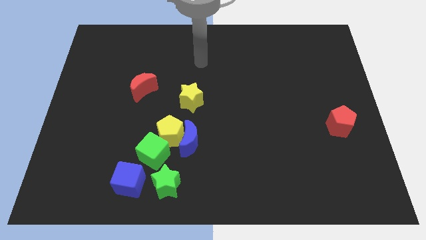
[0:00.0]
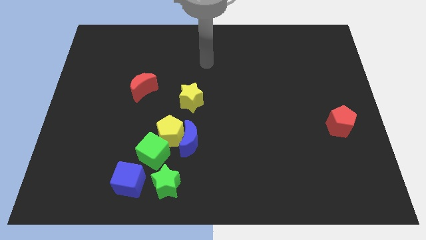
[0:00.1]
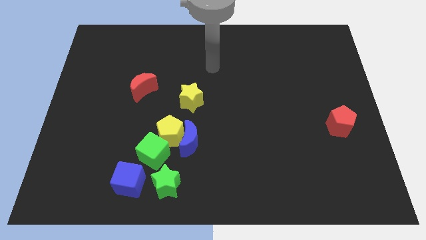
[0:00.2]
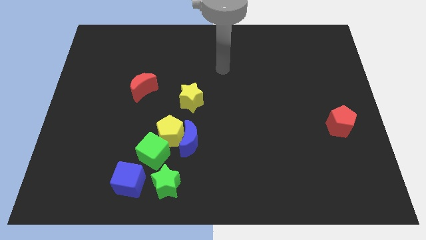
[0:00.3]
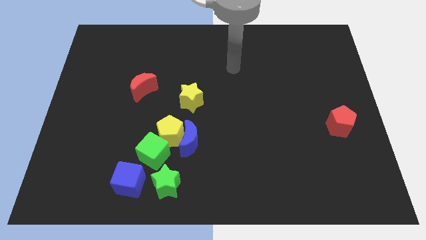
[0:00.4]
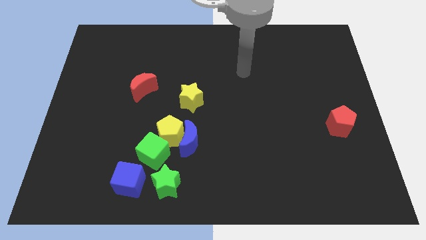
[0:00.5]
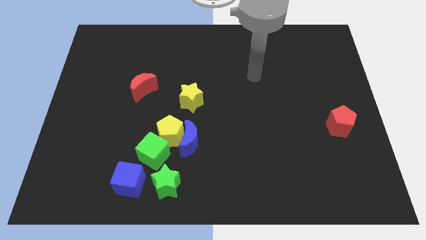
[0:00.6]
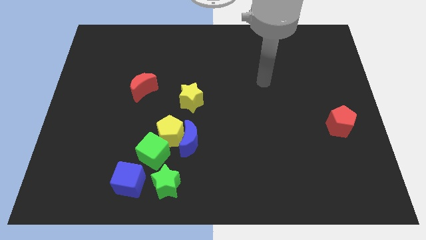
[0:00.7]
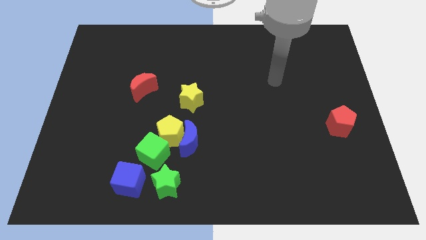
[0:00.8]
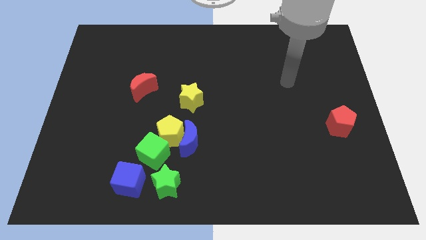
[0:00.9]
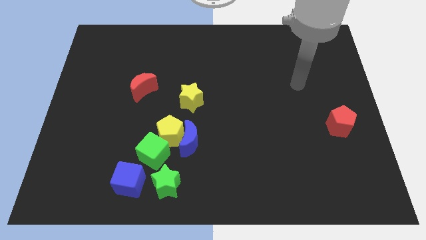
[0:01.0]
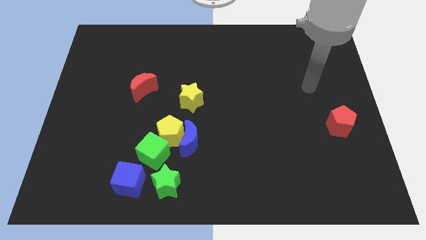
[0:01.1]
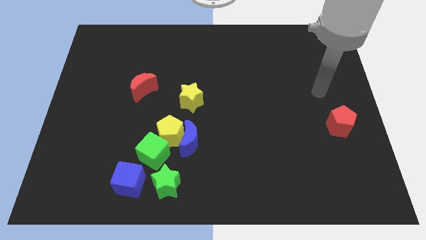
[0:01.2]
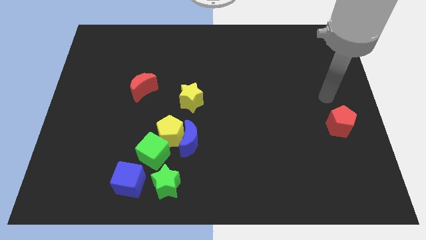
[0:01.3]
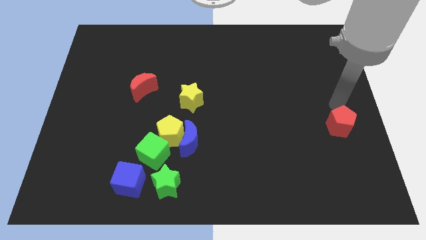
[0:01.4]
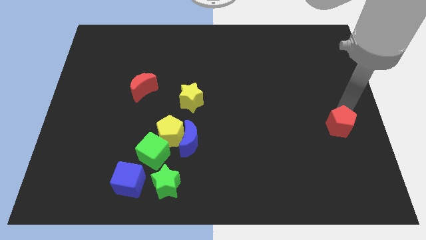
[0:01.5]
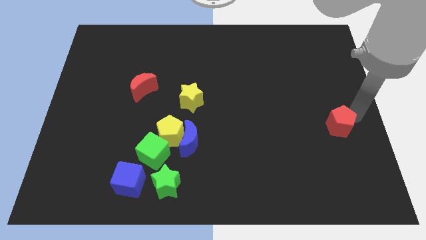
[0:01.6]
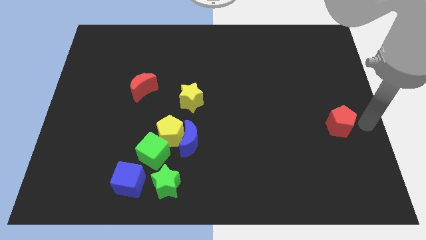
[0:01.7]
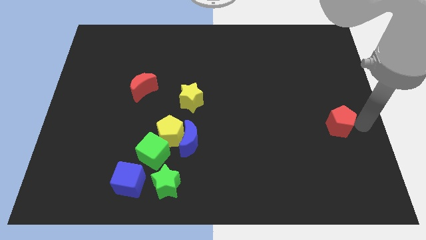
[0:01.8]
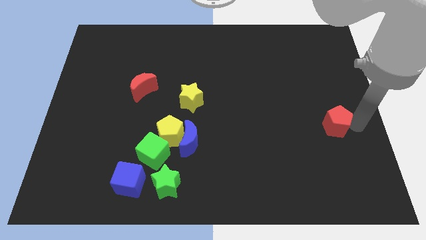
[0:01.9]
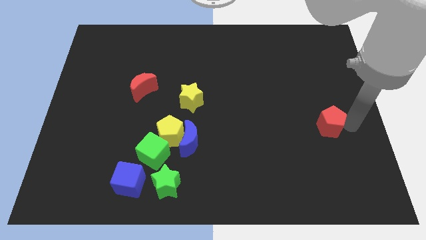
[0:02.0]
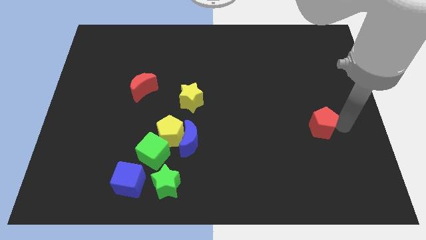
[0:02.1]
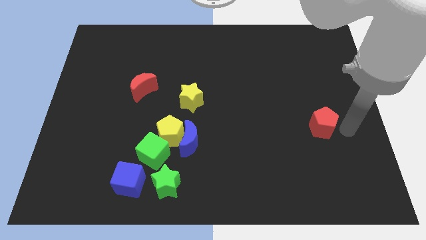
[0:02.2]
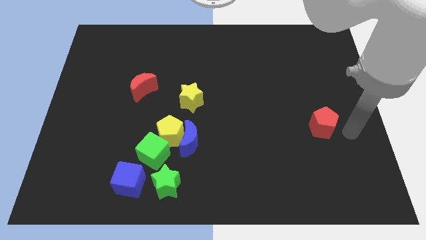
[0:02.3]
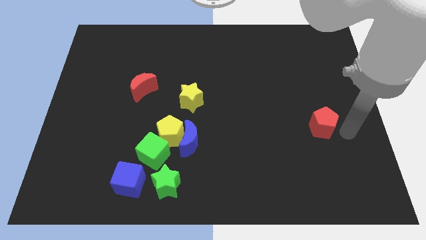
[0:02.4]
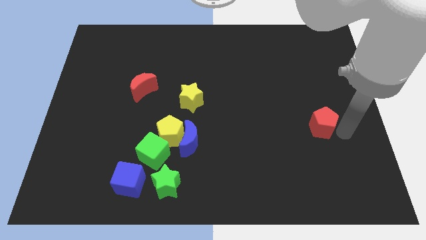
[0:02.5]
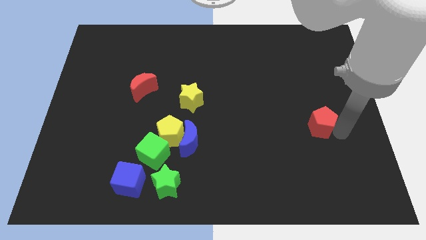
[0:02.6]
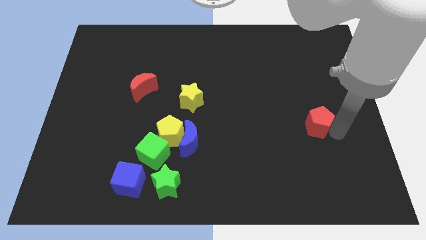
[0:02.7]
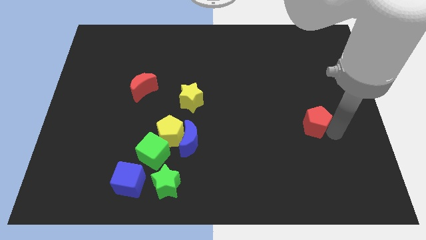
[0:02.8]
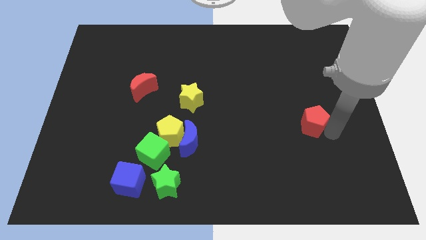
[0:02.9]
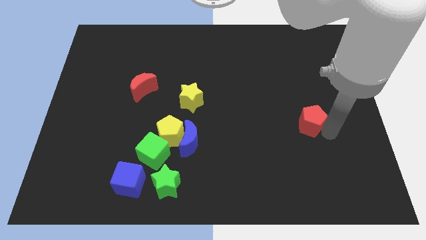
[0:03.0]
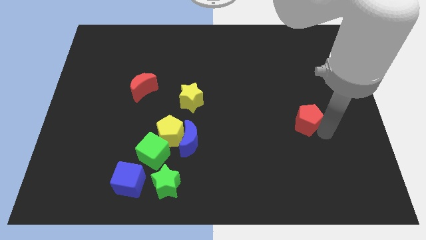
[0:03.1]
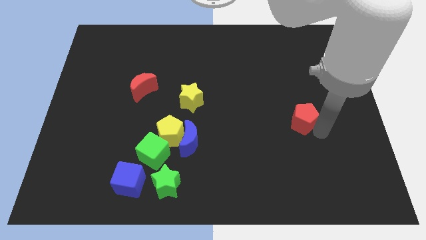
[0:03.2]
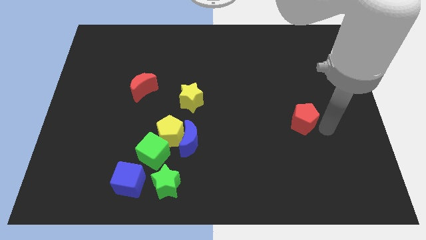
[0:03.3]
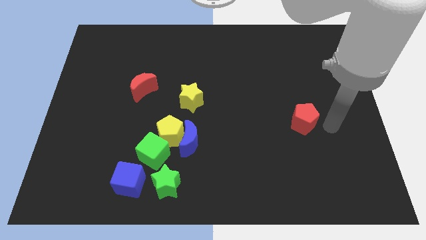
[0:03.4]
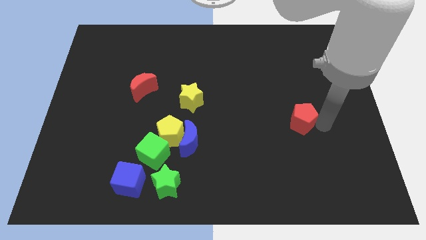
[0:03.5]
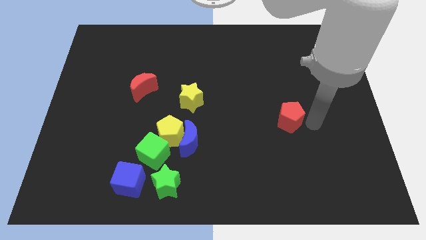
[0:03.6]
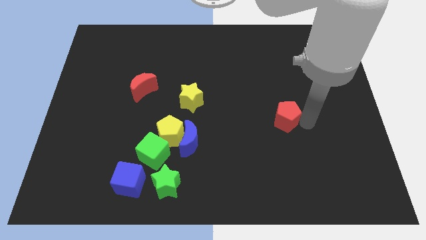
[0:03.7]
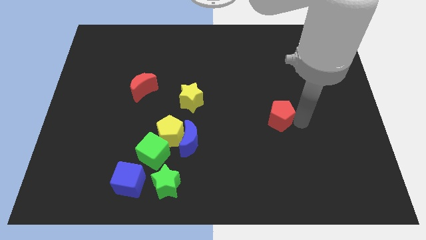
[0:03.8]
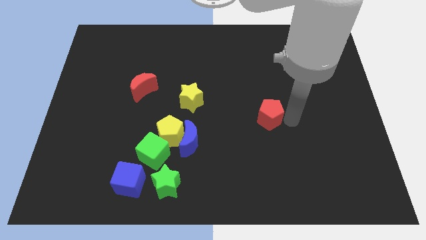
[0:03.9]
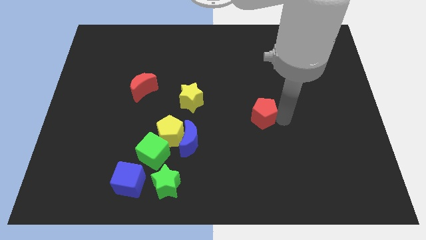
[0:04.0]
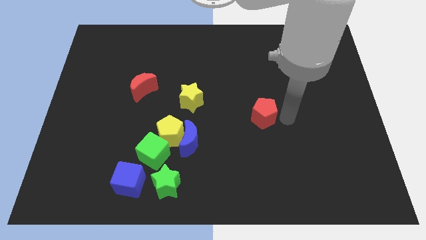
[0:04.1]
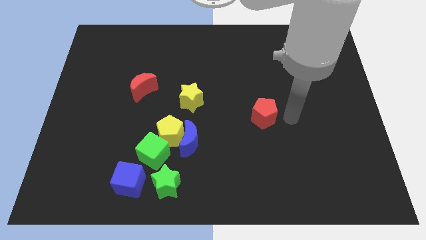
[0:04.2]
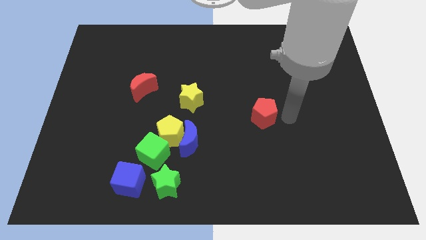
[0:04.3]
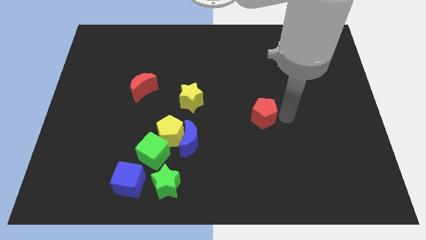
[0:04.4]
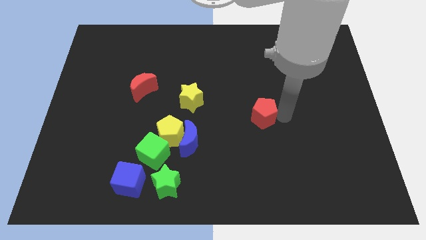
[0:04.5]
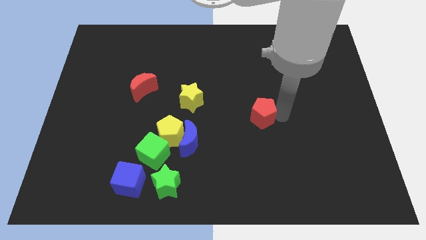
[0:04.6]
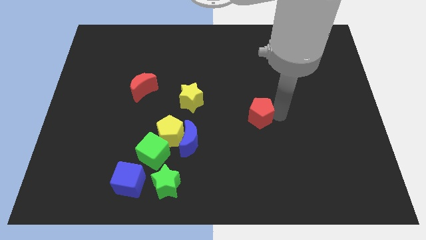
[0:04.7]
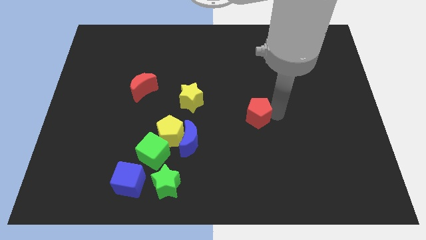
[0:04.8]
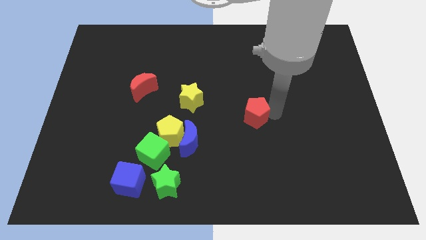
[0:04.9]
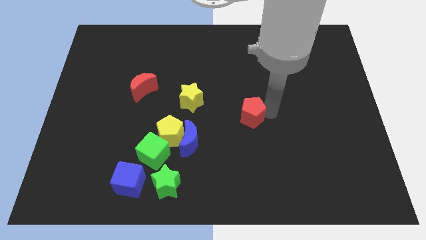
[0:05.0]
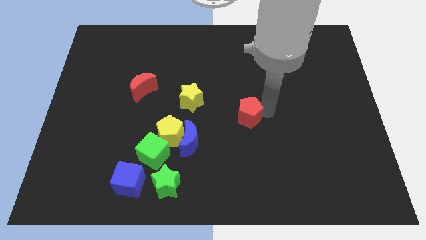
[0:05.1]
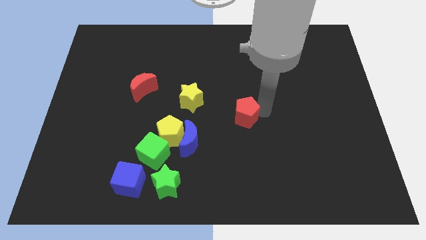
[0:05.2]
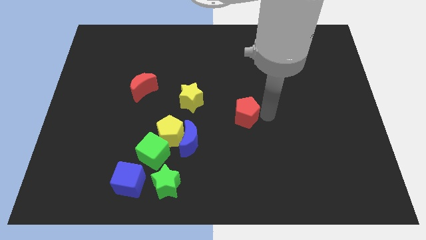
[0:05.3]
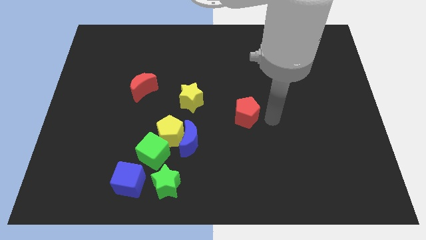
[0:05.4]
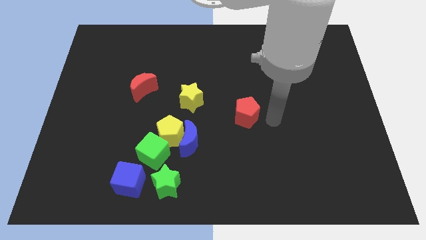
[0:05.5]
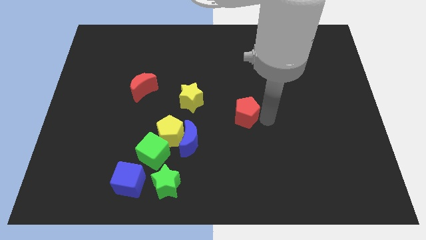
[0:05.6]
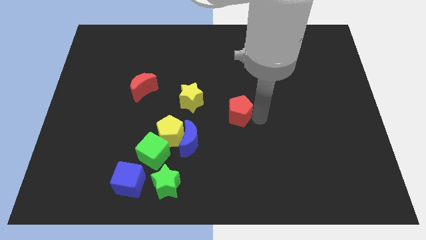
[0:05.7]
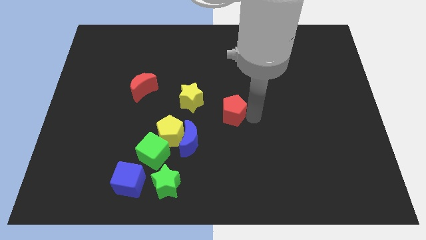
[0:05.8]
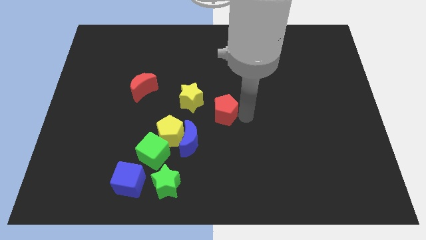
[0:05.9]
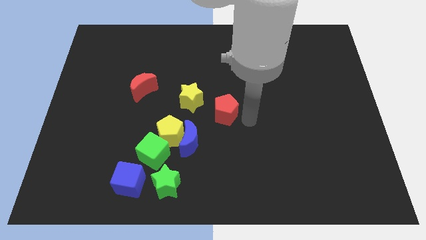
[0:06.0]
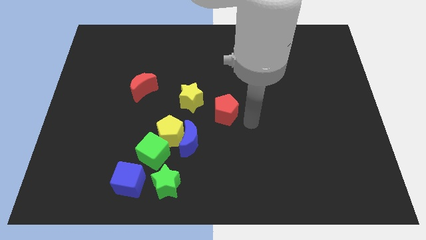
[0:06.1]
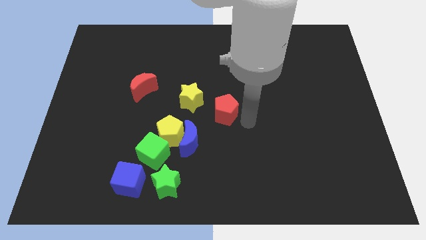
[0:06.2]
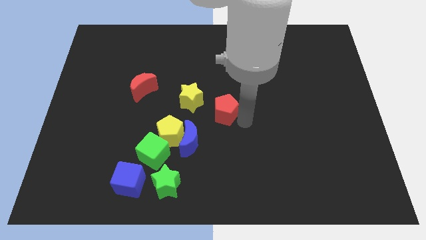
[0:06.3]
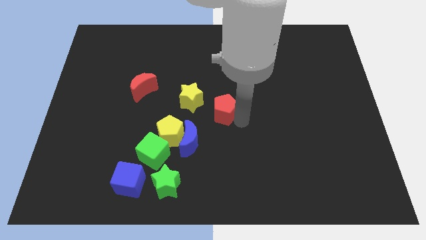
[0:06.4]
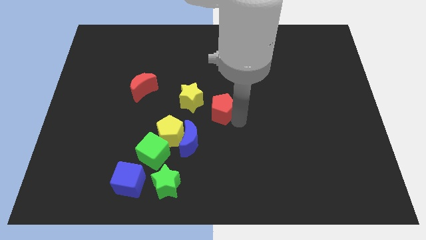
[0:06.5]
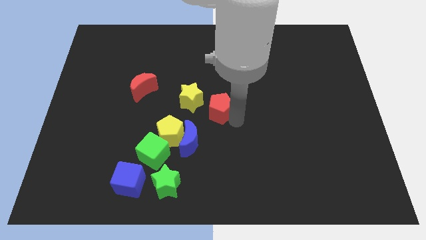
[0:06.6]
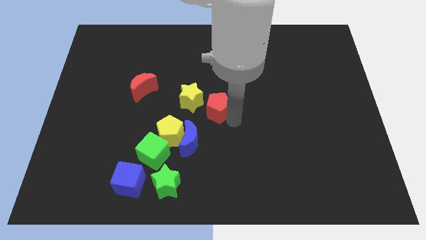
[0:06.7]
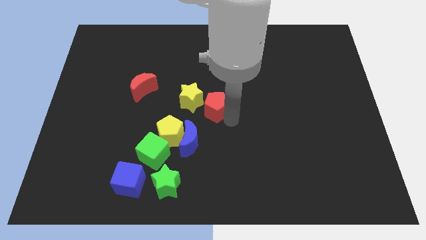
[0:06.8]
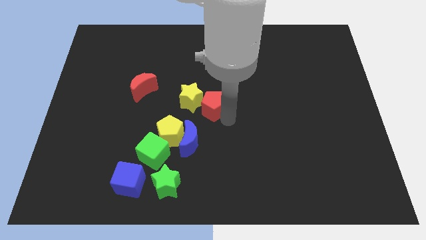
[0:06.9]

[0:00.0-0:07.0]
slide the red pentagon next to the yellow star
